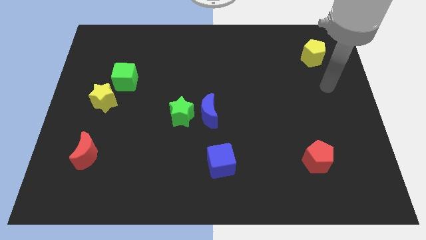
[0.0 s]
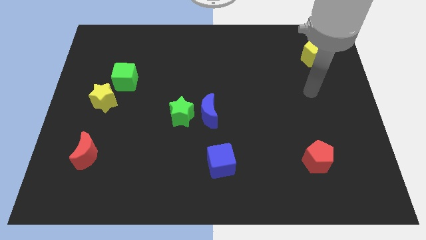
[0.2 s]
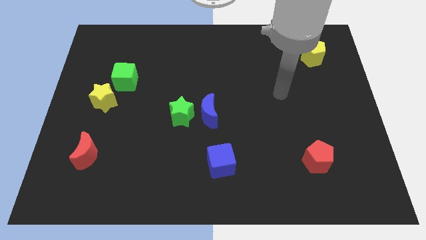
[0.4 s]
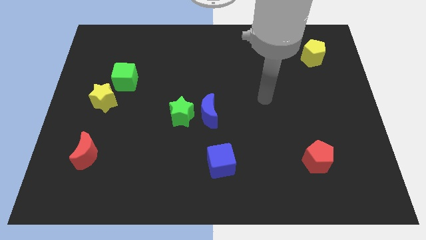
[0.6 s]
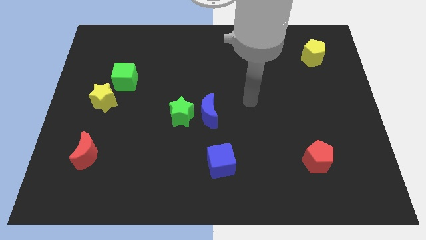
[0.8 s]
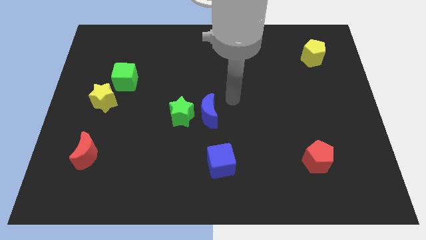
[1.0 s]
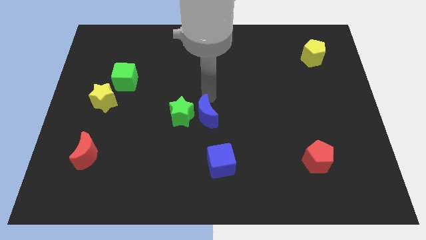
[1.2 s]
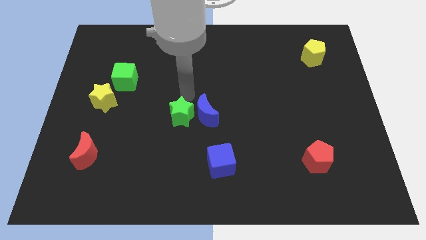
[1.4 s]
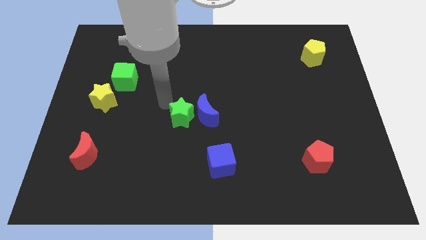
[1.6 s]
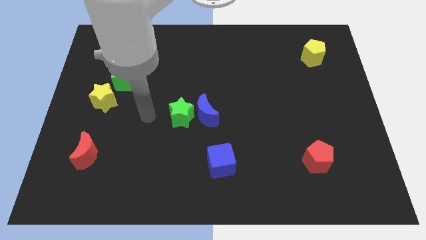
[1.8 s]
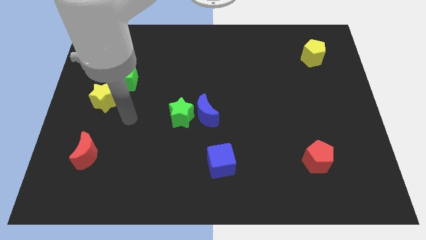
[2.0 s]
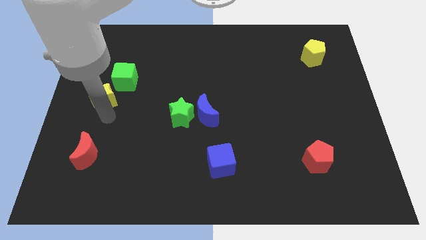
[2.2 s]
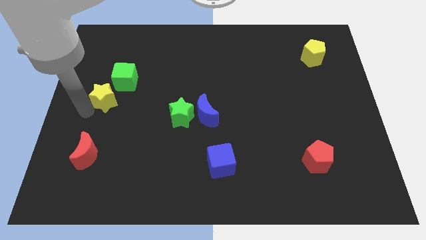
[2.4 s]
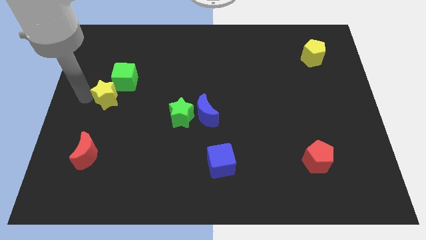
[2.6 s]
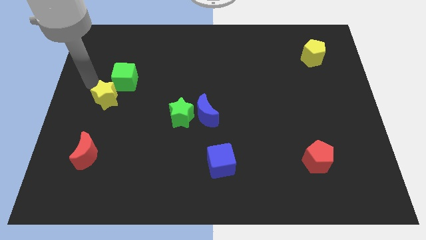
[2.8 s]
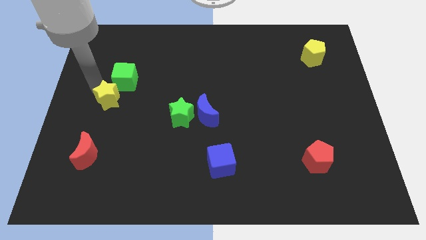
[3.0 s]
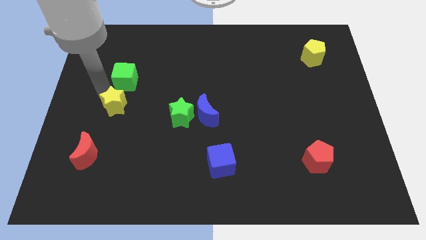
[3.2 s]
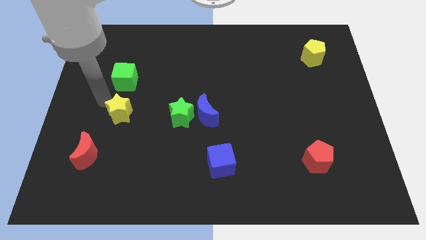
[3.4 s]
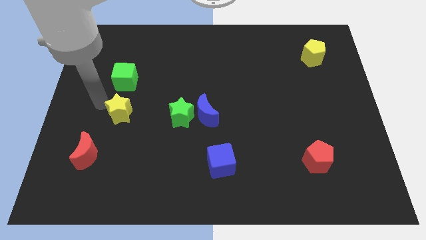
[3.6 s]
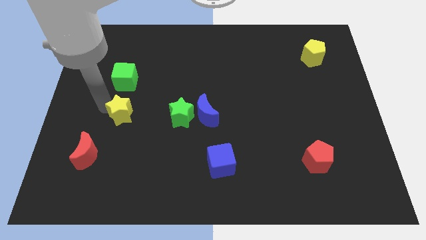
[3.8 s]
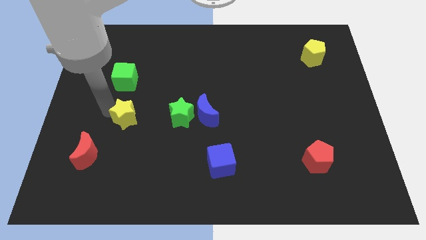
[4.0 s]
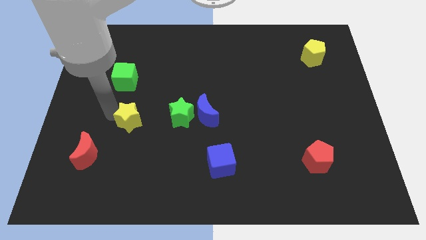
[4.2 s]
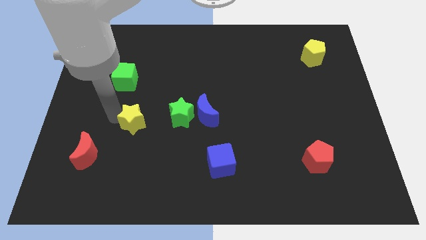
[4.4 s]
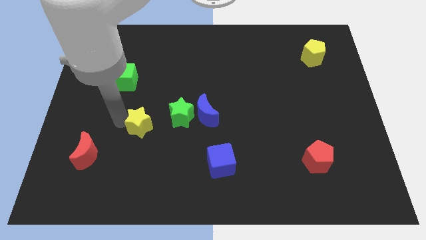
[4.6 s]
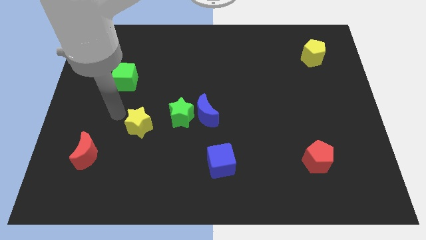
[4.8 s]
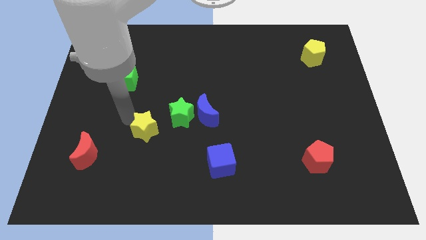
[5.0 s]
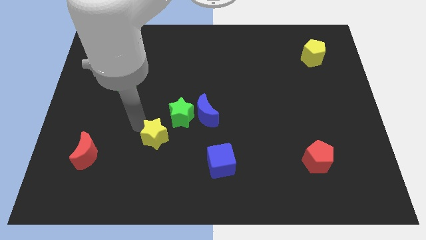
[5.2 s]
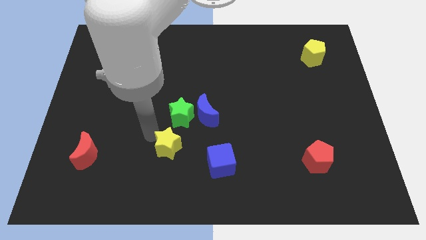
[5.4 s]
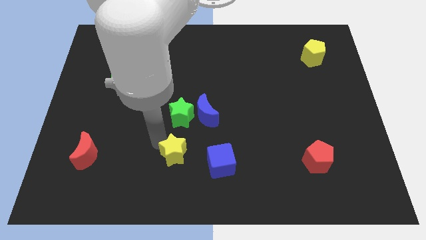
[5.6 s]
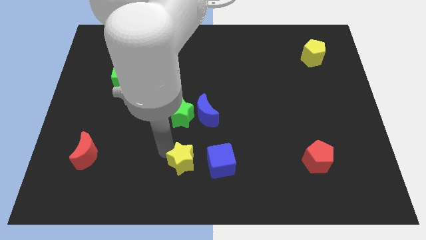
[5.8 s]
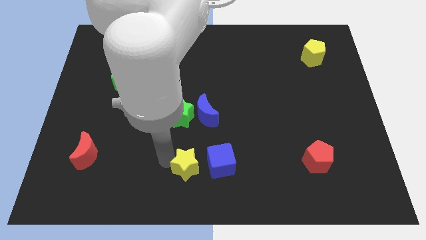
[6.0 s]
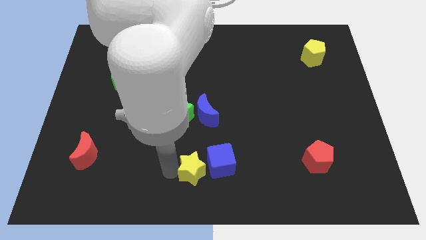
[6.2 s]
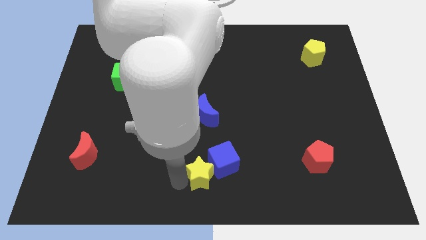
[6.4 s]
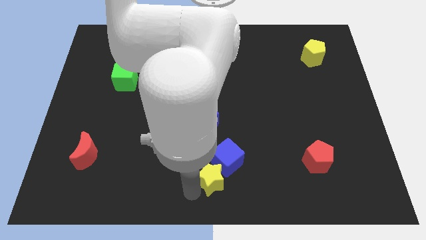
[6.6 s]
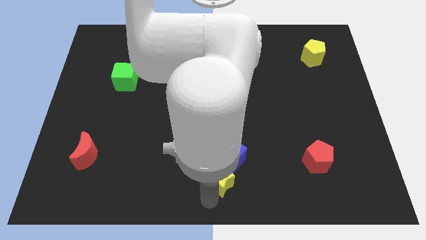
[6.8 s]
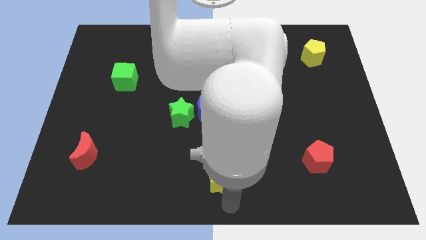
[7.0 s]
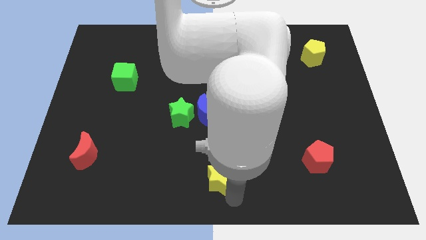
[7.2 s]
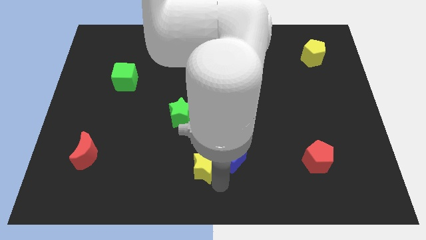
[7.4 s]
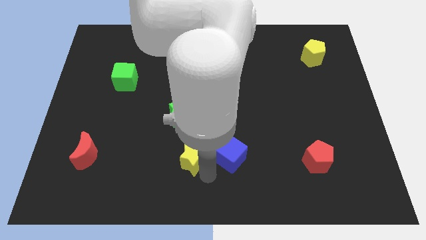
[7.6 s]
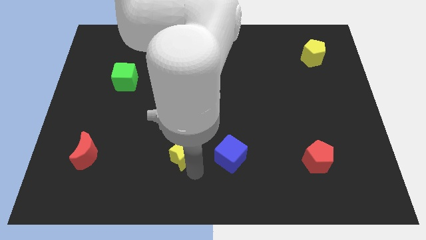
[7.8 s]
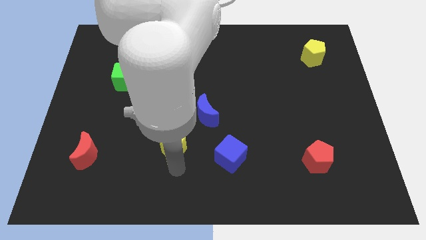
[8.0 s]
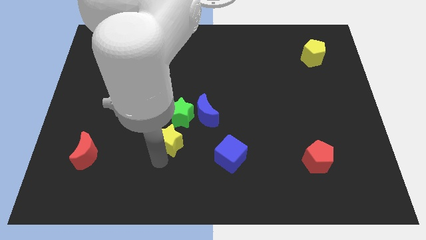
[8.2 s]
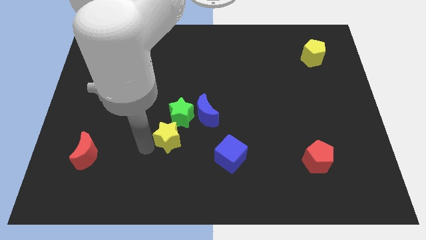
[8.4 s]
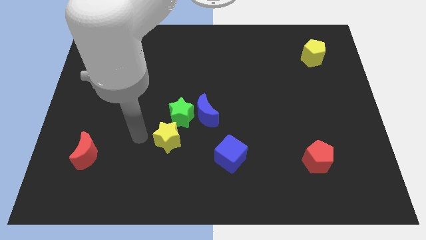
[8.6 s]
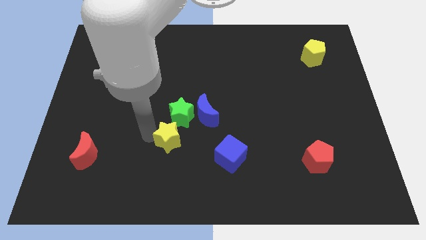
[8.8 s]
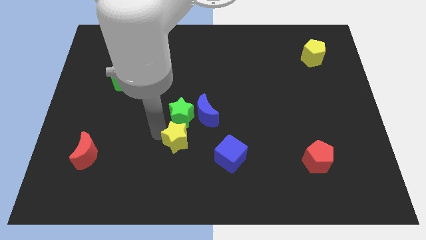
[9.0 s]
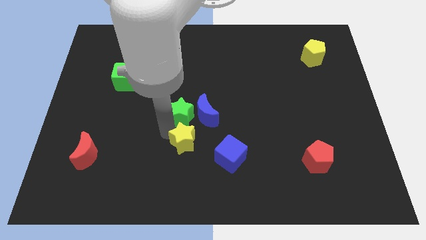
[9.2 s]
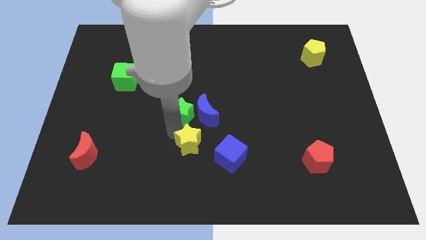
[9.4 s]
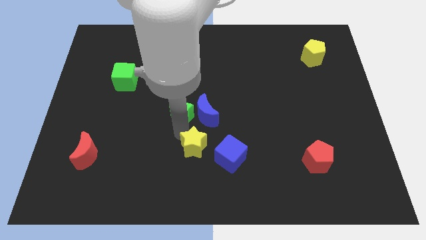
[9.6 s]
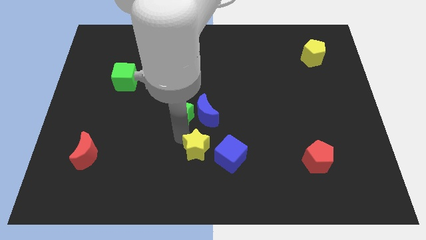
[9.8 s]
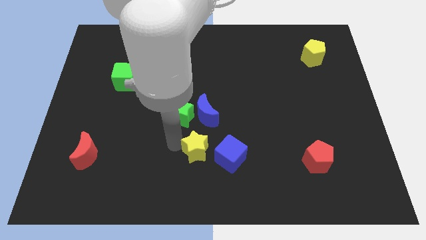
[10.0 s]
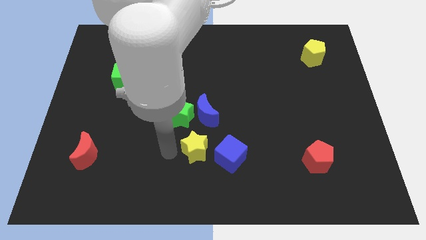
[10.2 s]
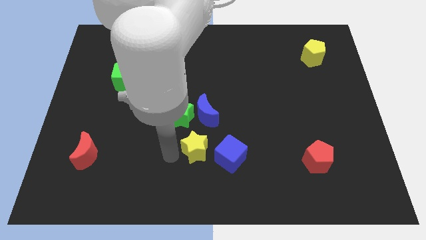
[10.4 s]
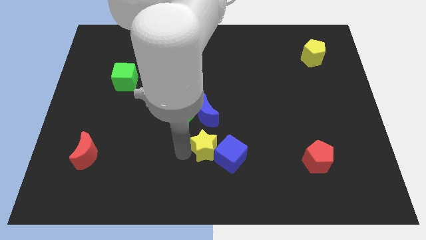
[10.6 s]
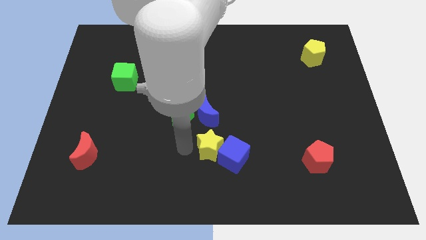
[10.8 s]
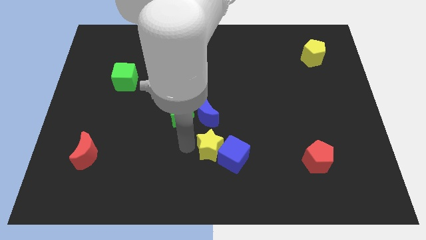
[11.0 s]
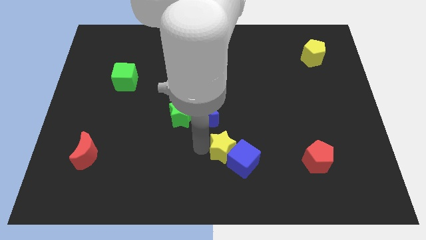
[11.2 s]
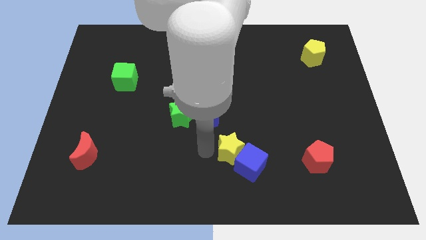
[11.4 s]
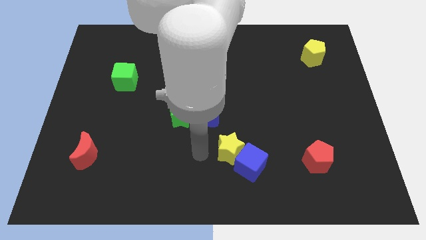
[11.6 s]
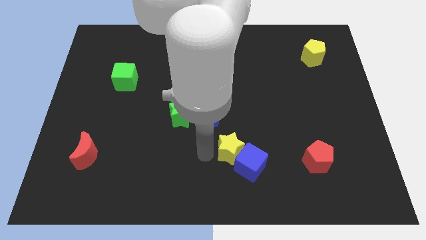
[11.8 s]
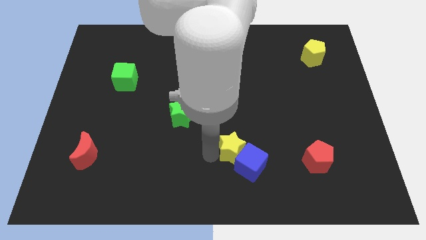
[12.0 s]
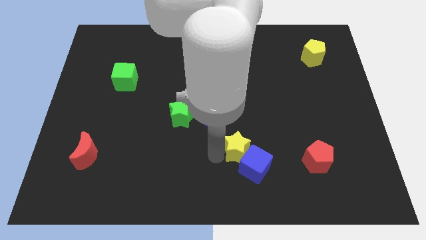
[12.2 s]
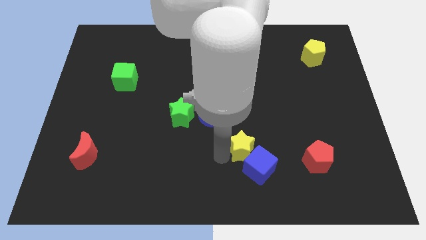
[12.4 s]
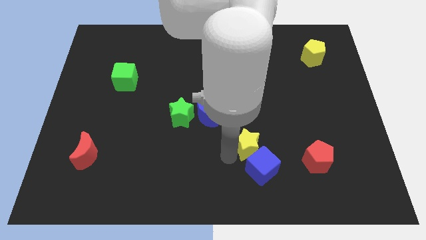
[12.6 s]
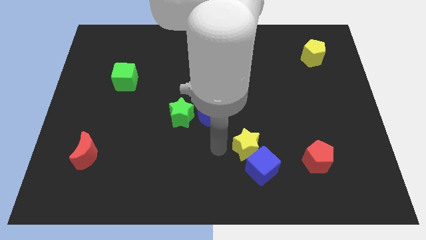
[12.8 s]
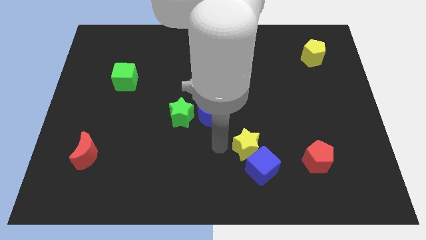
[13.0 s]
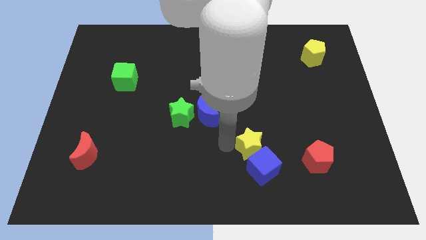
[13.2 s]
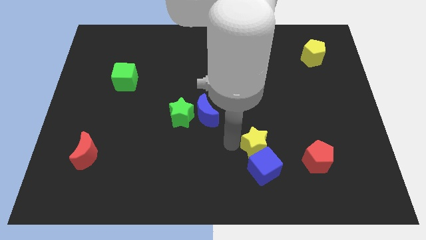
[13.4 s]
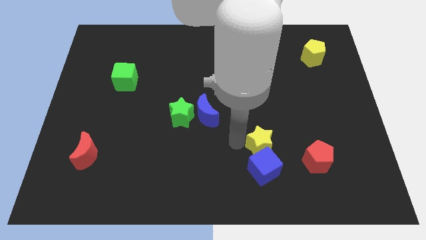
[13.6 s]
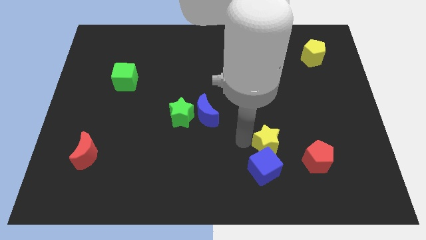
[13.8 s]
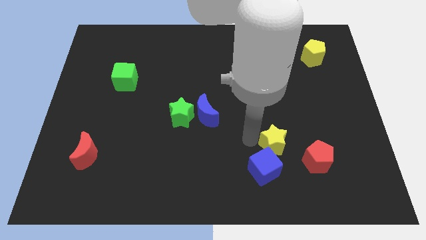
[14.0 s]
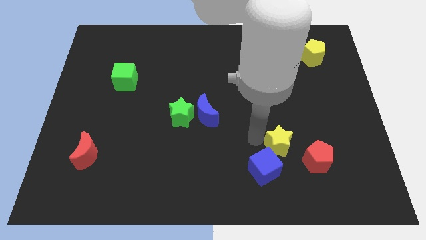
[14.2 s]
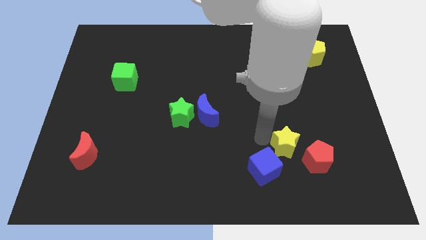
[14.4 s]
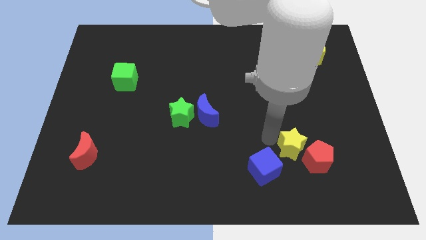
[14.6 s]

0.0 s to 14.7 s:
slide the yellow star to the red pentagon
